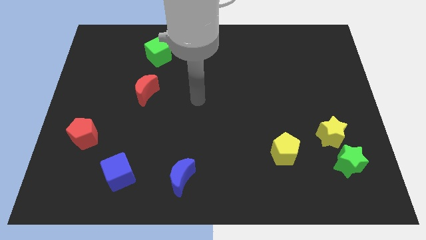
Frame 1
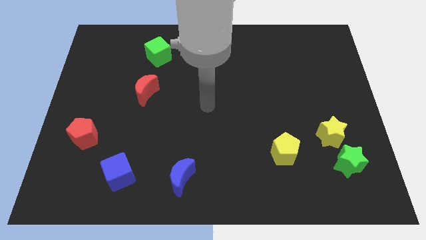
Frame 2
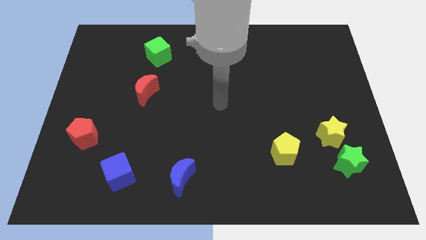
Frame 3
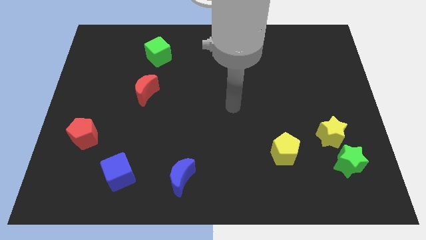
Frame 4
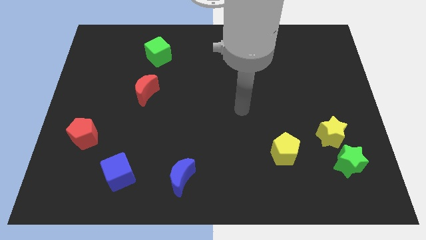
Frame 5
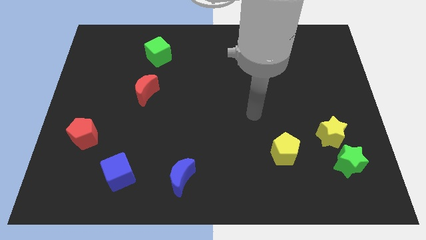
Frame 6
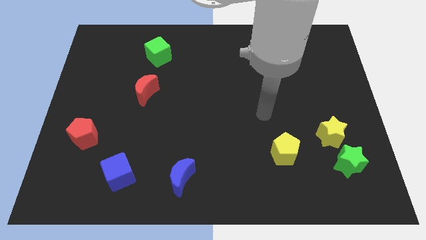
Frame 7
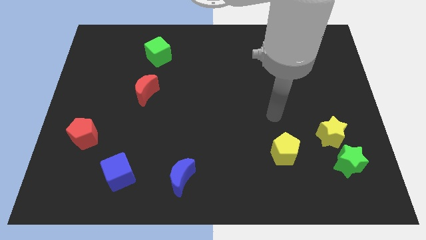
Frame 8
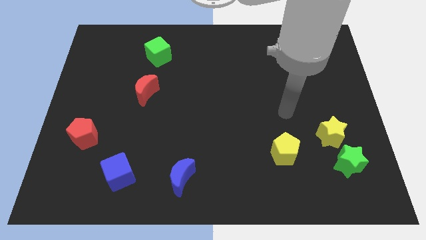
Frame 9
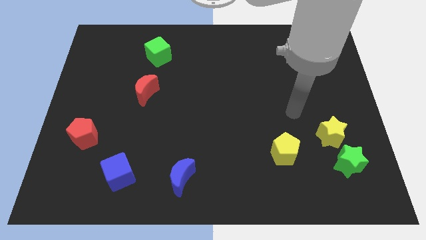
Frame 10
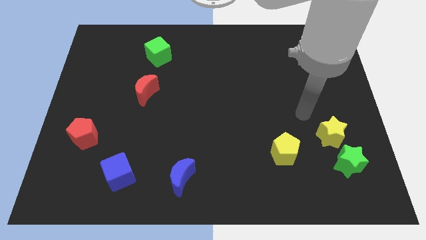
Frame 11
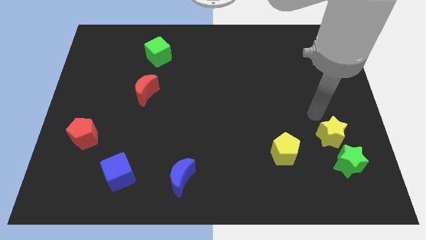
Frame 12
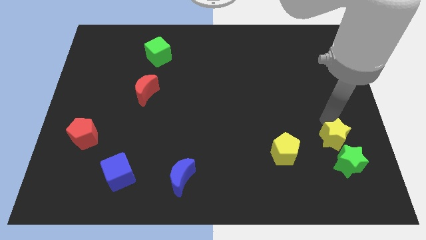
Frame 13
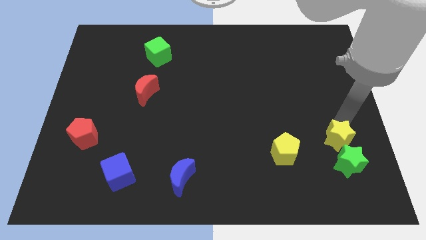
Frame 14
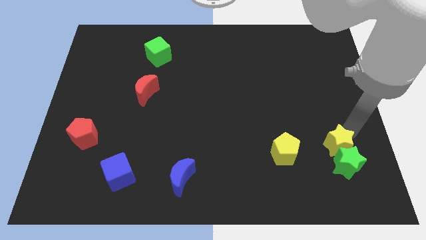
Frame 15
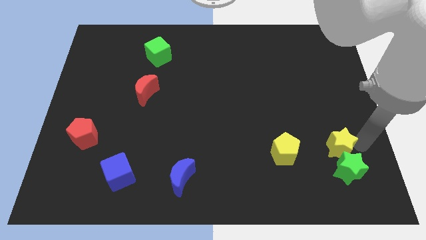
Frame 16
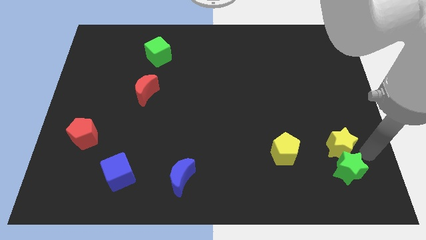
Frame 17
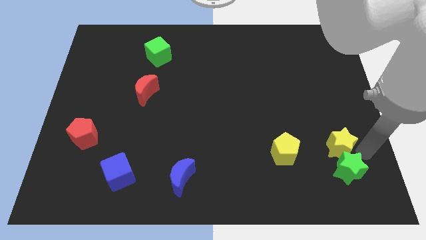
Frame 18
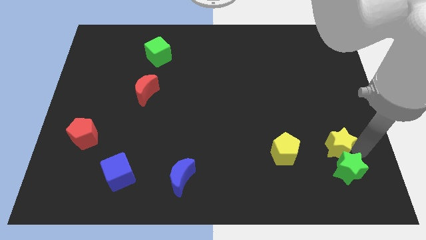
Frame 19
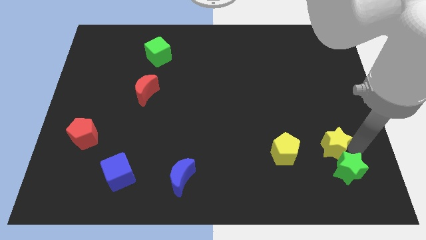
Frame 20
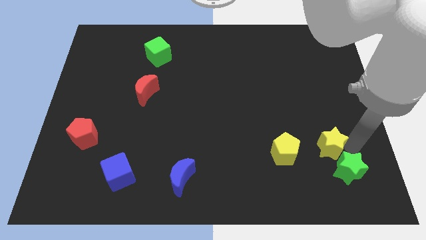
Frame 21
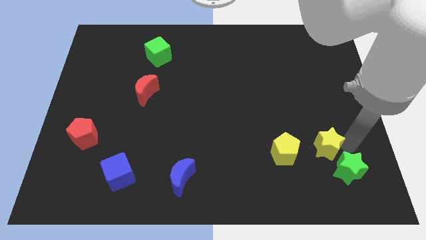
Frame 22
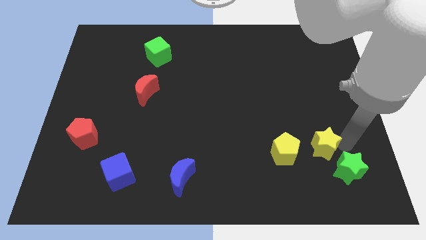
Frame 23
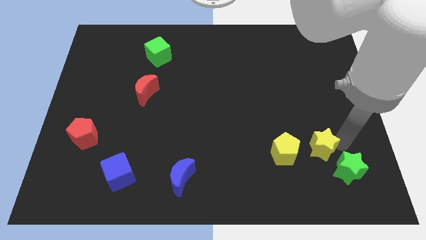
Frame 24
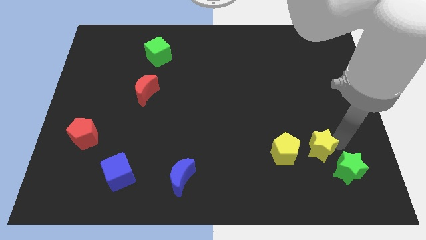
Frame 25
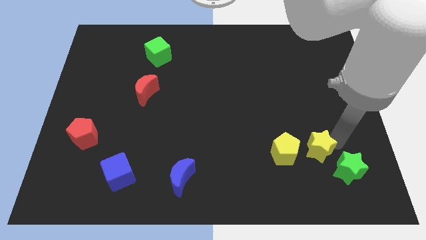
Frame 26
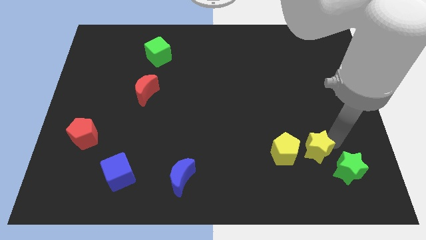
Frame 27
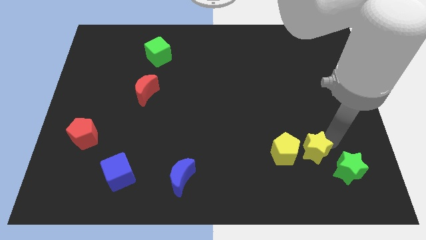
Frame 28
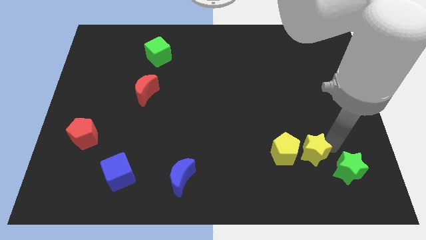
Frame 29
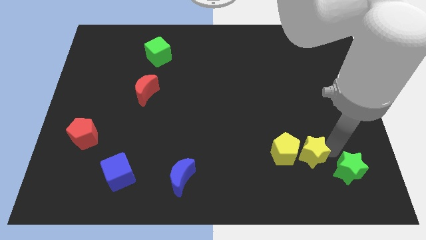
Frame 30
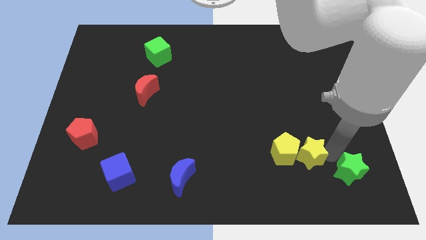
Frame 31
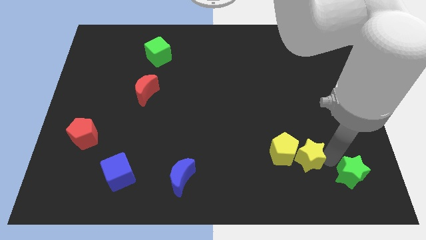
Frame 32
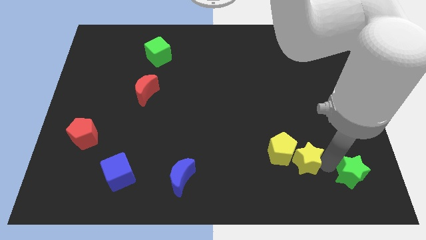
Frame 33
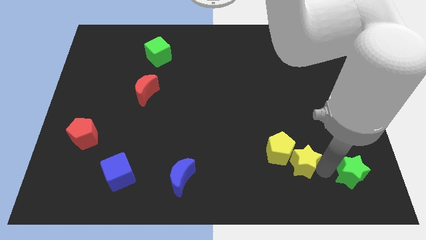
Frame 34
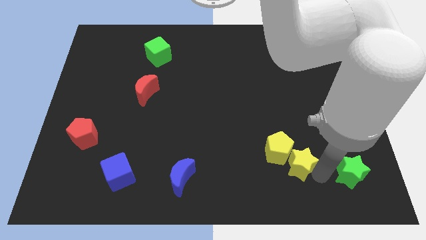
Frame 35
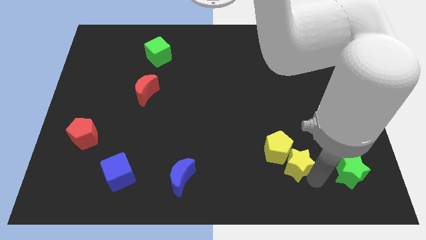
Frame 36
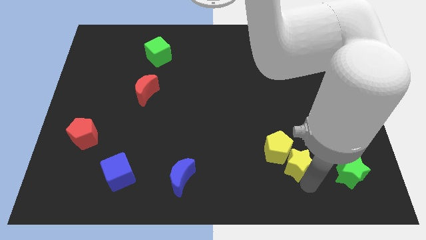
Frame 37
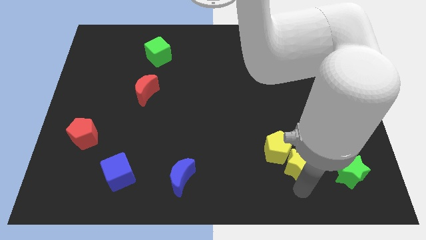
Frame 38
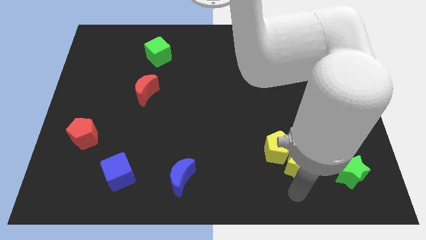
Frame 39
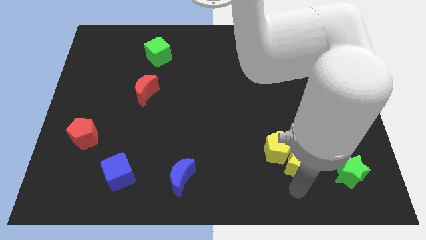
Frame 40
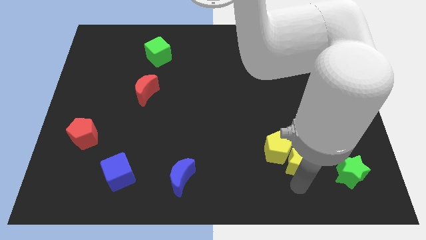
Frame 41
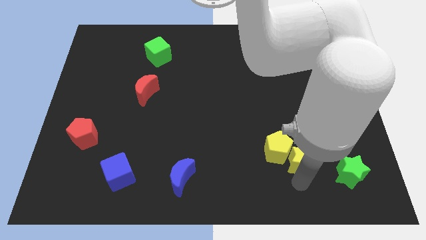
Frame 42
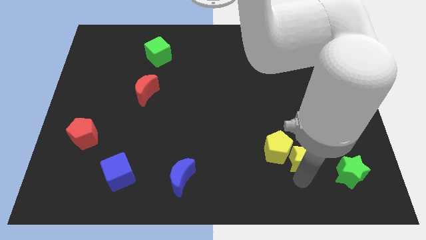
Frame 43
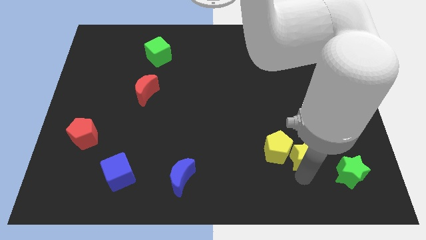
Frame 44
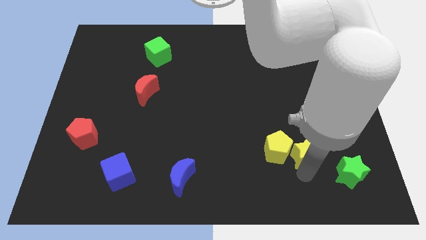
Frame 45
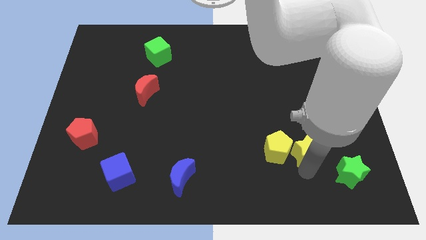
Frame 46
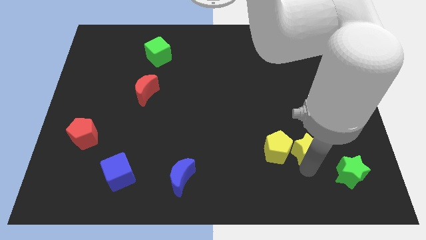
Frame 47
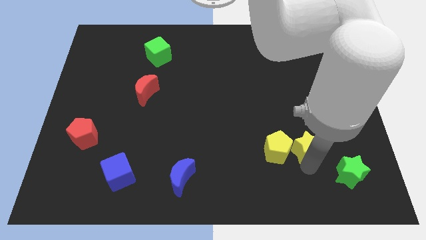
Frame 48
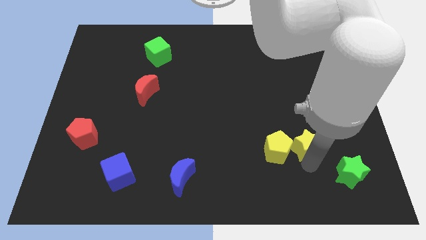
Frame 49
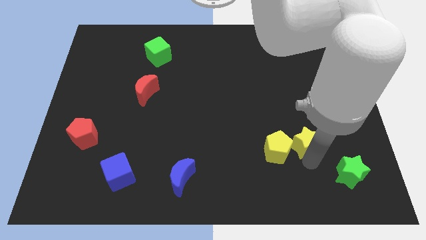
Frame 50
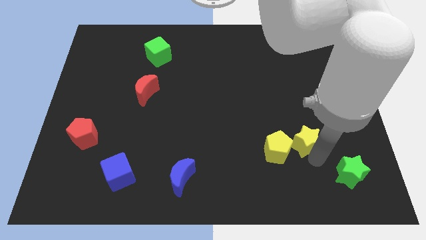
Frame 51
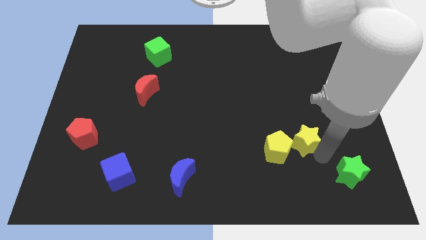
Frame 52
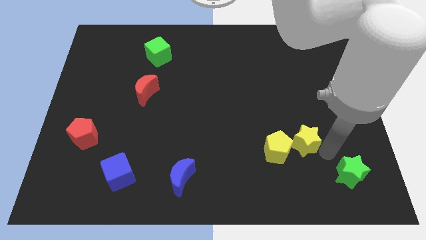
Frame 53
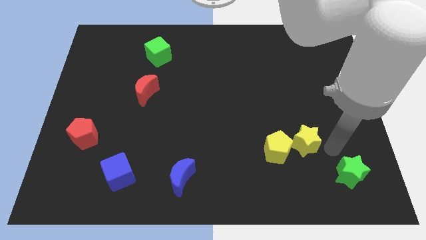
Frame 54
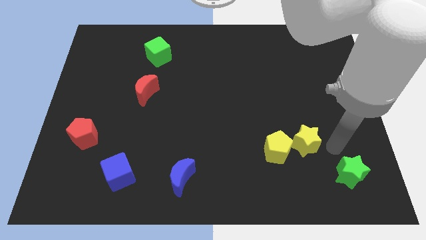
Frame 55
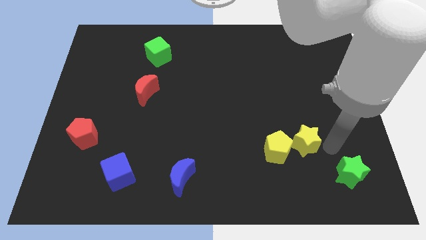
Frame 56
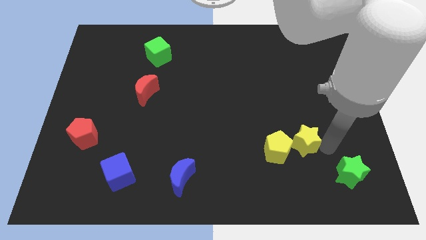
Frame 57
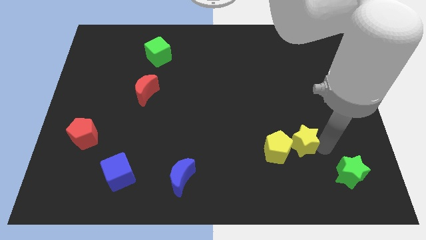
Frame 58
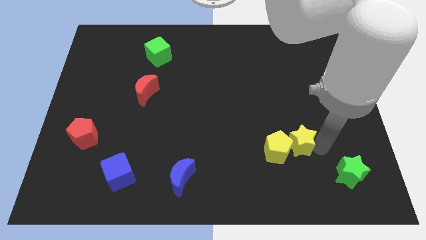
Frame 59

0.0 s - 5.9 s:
slightly slide the yellow star left

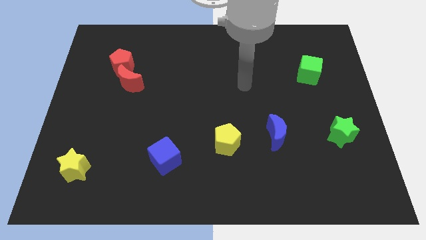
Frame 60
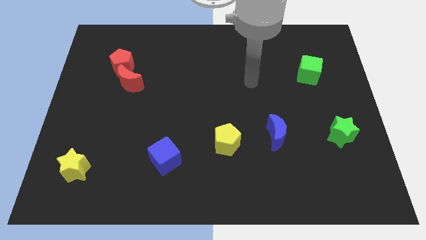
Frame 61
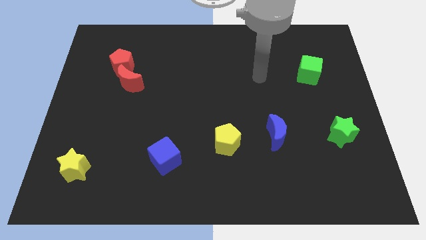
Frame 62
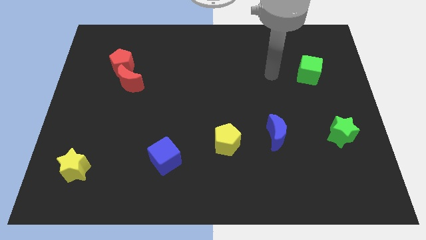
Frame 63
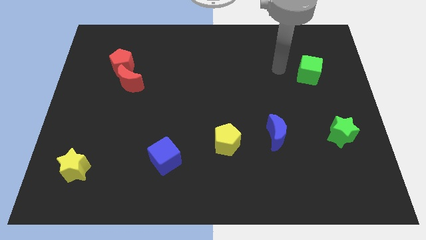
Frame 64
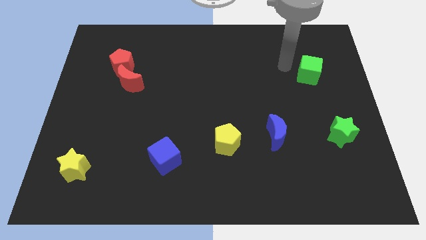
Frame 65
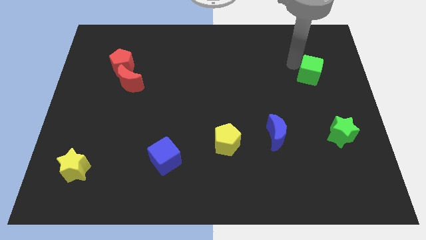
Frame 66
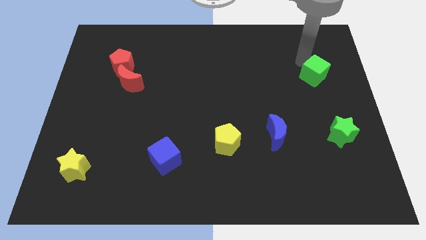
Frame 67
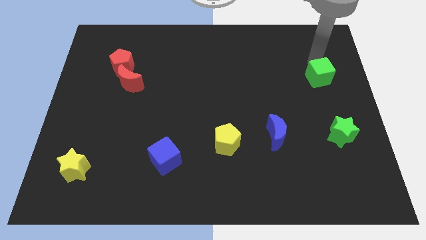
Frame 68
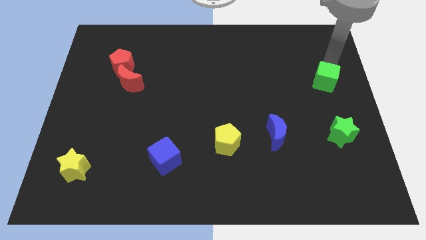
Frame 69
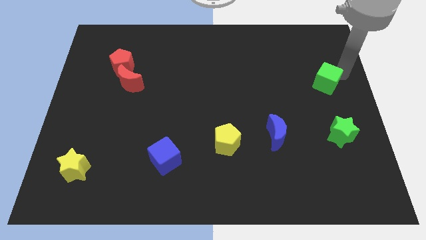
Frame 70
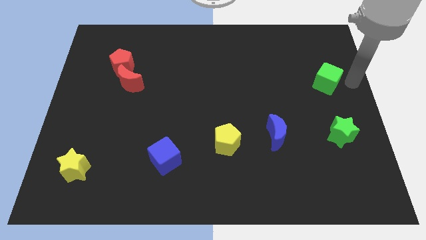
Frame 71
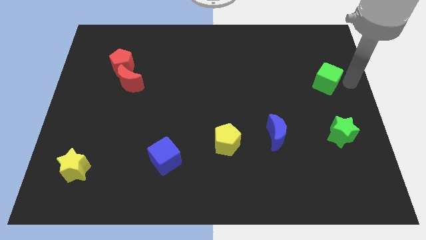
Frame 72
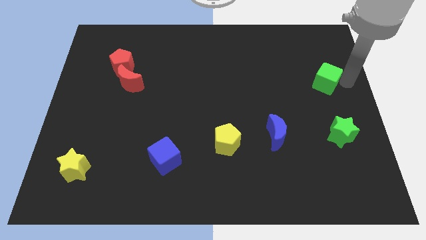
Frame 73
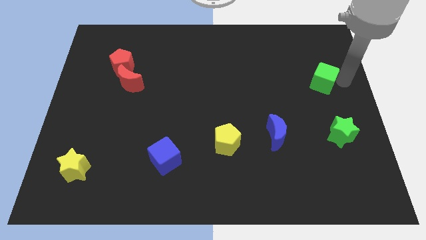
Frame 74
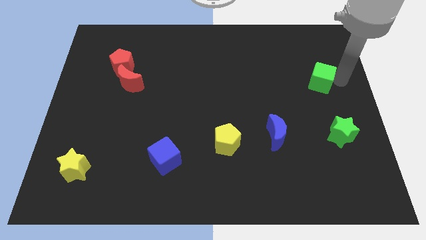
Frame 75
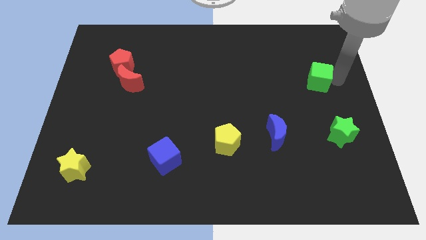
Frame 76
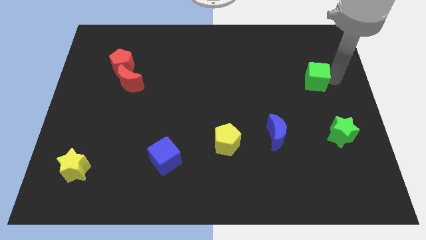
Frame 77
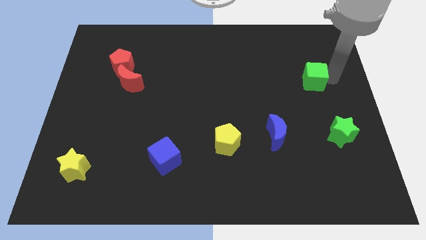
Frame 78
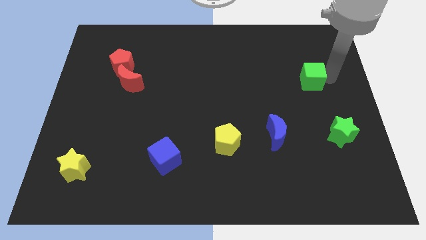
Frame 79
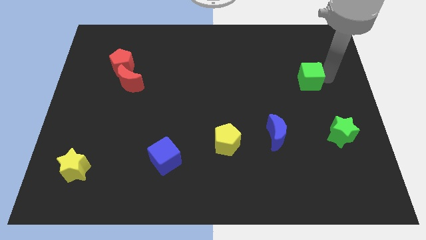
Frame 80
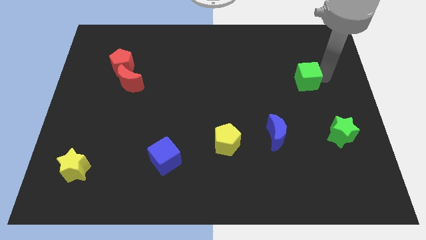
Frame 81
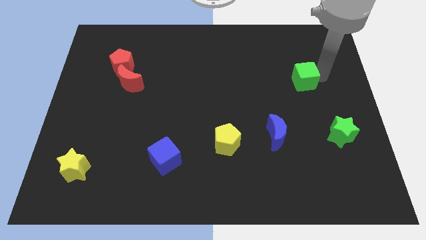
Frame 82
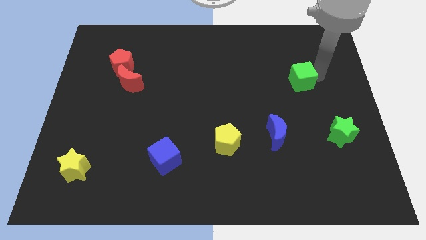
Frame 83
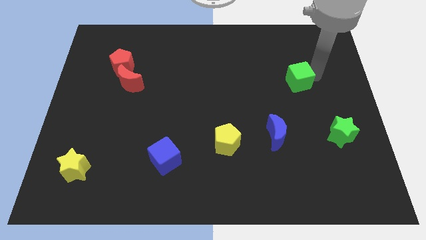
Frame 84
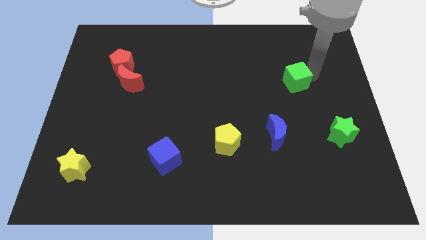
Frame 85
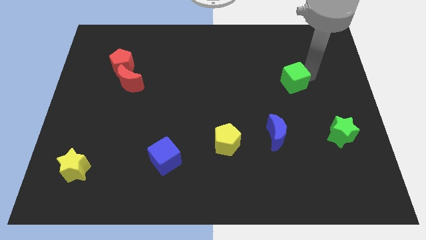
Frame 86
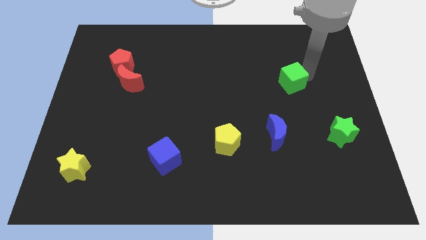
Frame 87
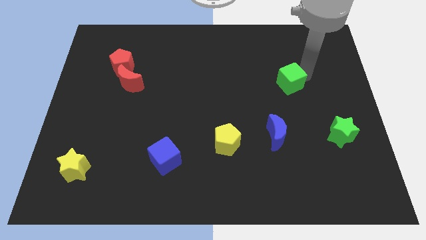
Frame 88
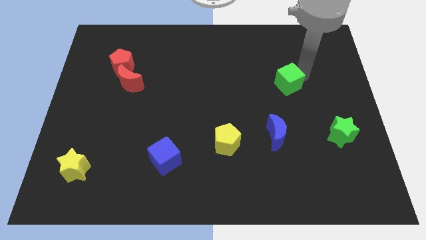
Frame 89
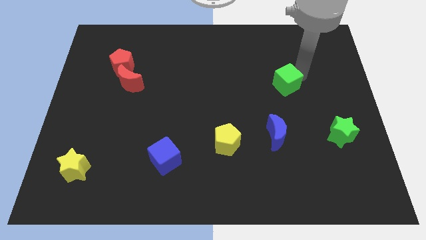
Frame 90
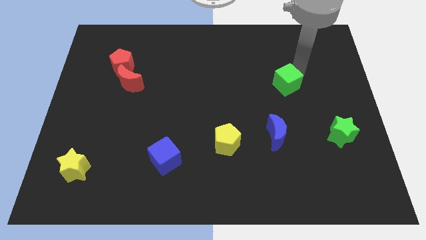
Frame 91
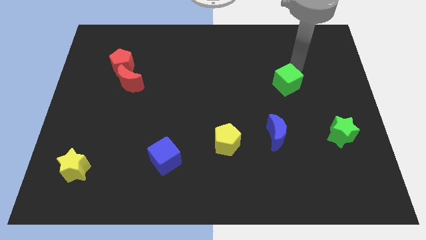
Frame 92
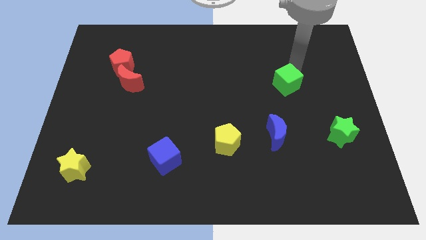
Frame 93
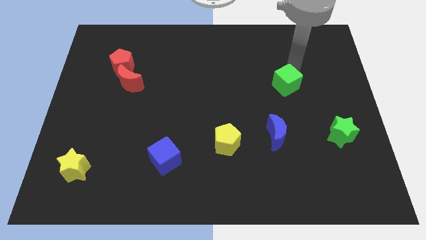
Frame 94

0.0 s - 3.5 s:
slightly move the green cube diagonally downwards and left
